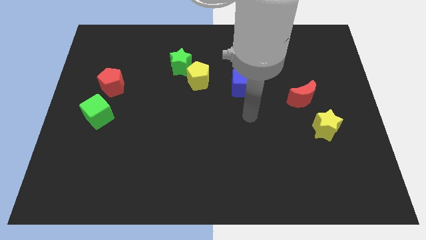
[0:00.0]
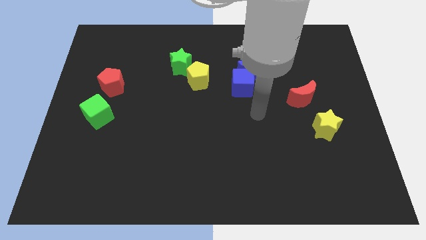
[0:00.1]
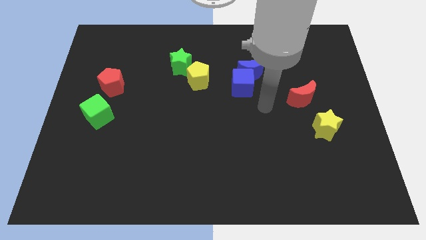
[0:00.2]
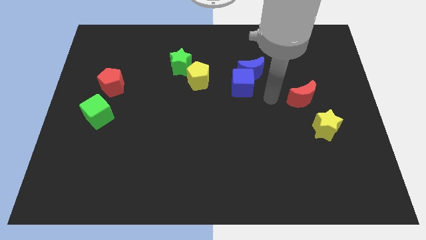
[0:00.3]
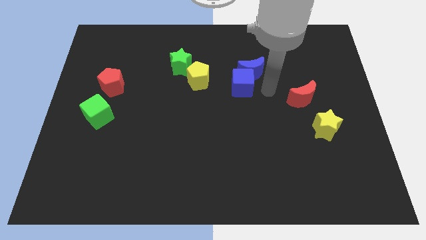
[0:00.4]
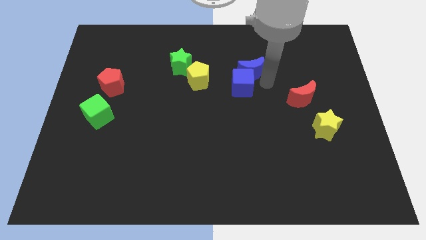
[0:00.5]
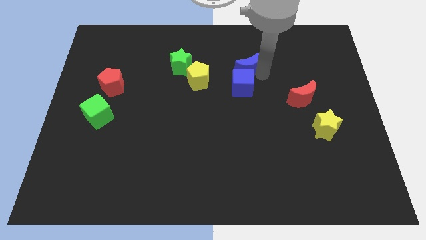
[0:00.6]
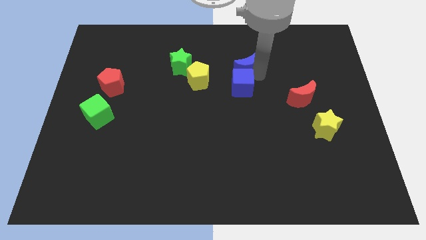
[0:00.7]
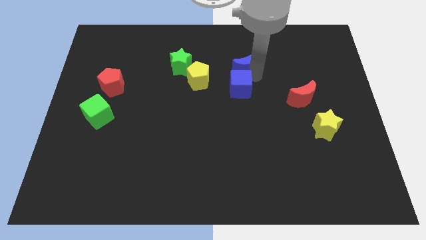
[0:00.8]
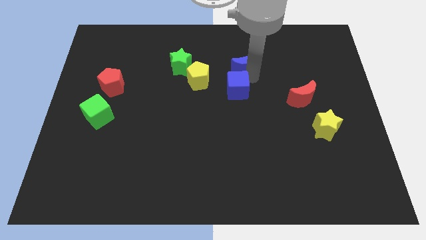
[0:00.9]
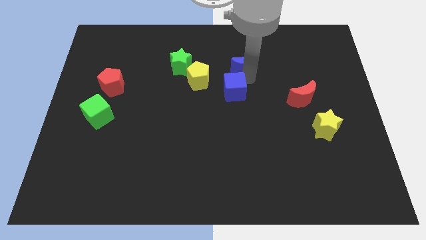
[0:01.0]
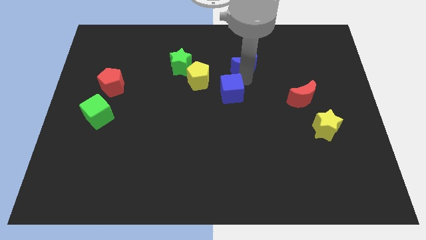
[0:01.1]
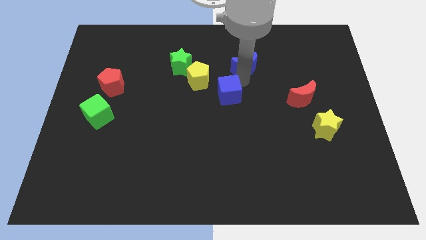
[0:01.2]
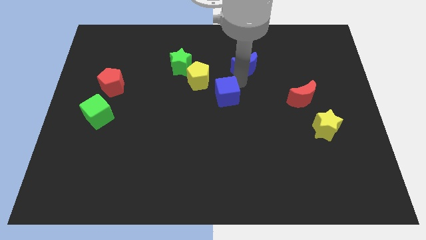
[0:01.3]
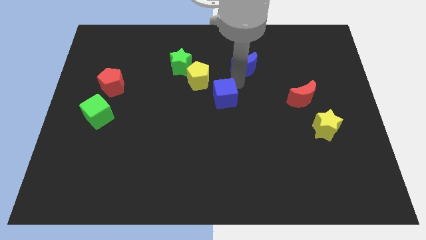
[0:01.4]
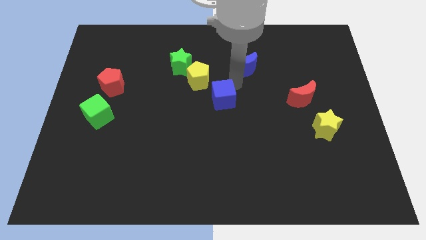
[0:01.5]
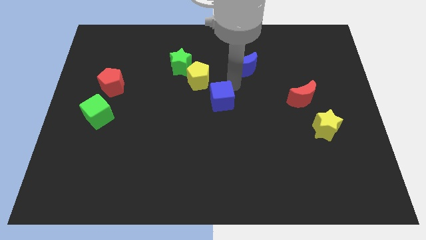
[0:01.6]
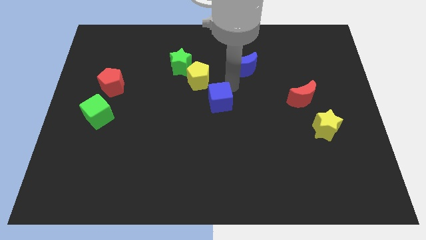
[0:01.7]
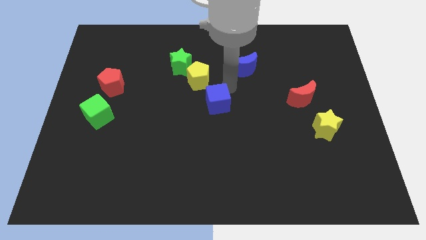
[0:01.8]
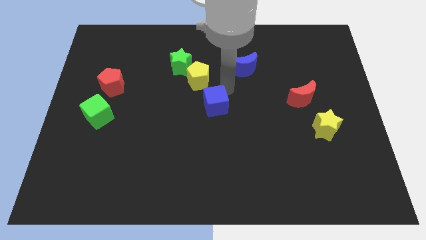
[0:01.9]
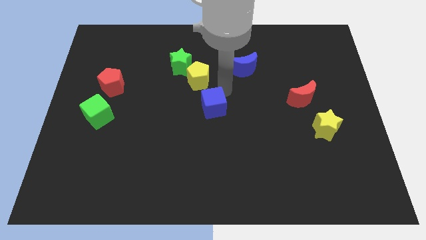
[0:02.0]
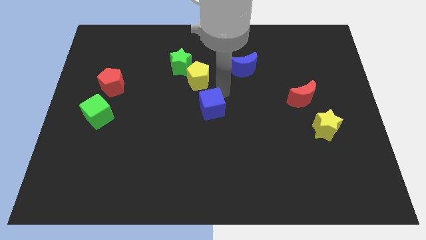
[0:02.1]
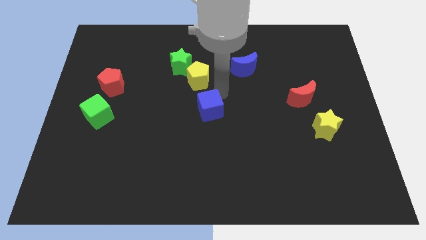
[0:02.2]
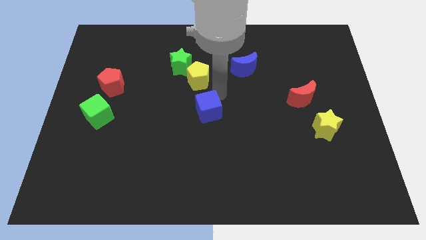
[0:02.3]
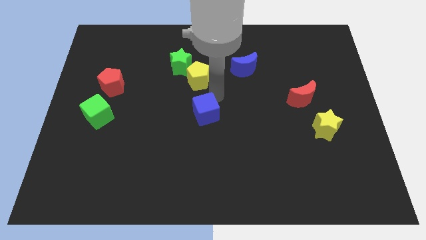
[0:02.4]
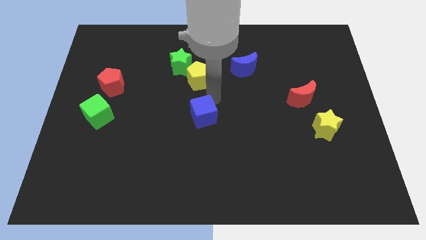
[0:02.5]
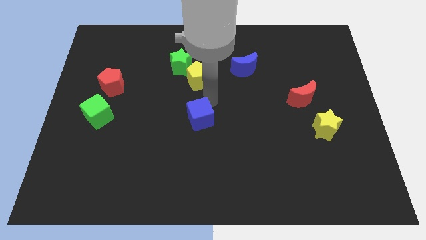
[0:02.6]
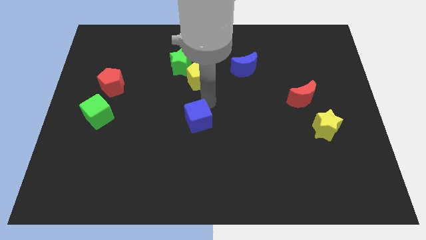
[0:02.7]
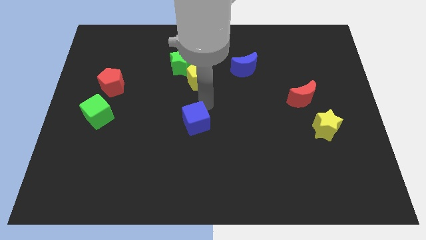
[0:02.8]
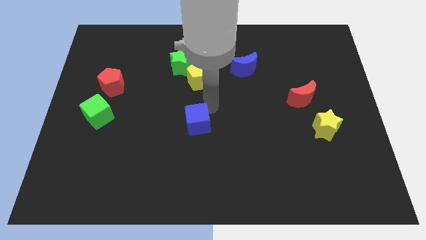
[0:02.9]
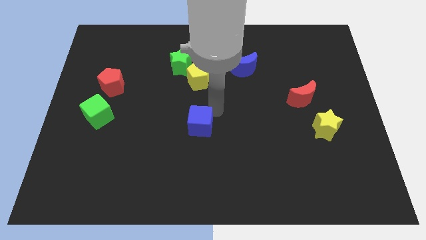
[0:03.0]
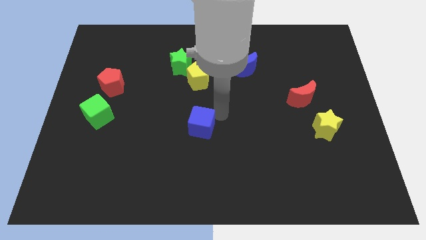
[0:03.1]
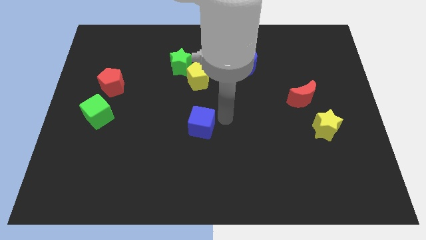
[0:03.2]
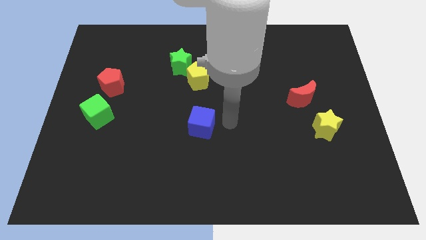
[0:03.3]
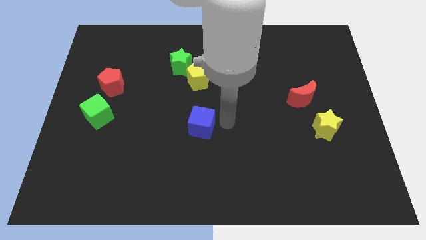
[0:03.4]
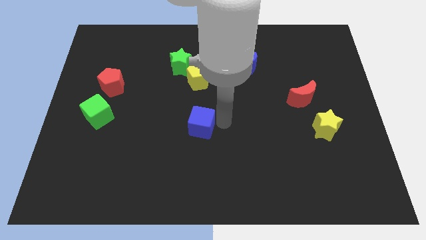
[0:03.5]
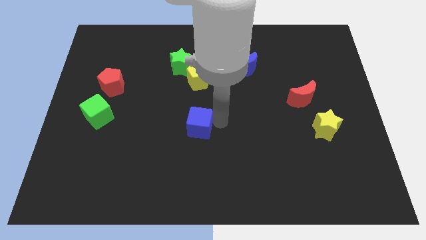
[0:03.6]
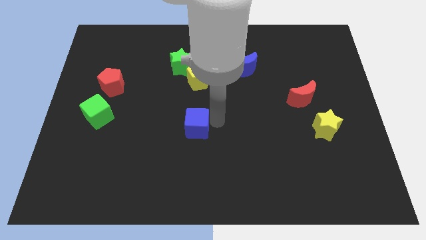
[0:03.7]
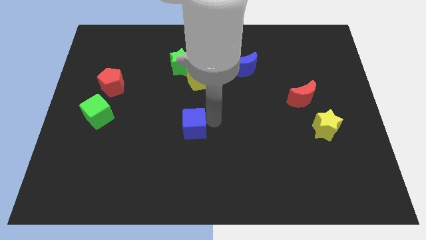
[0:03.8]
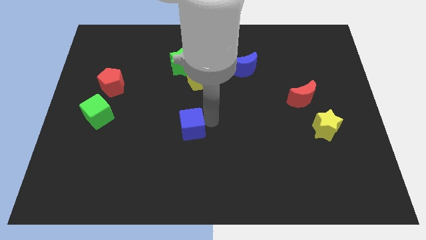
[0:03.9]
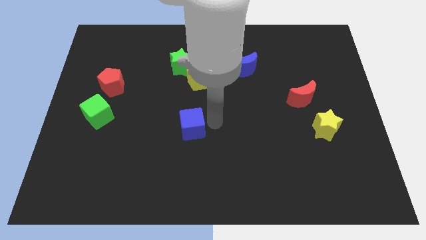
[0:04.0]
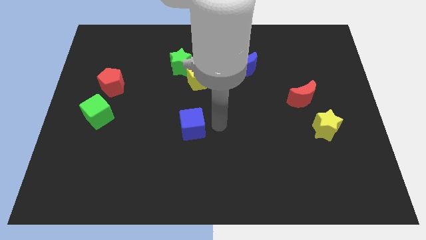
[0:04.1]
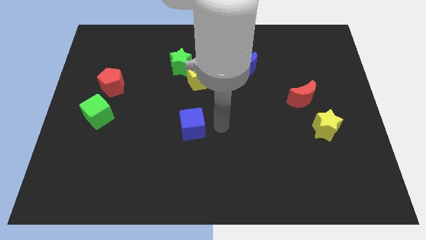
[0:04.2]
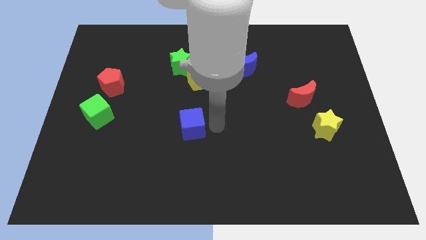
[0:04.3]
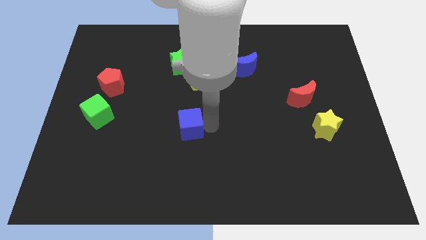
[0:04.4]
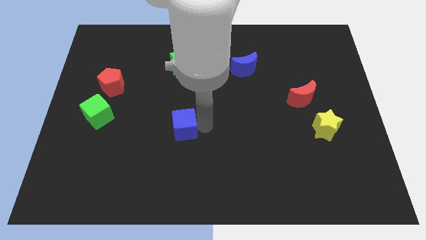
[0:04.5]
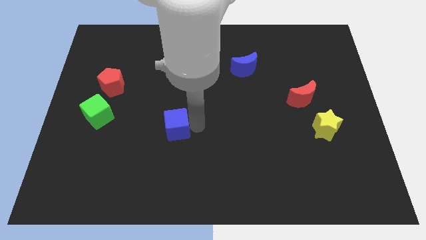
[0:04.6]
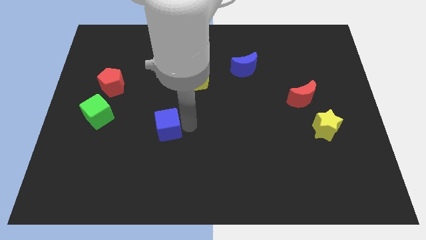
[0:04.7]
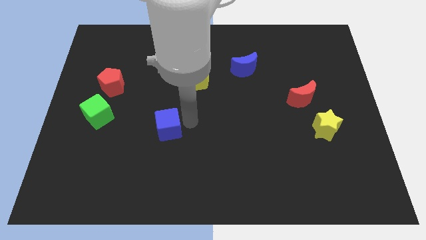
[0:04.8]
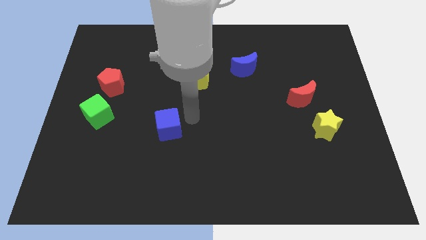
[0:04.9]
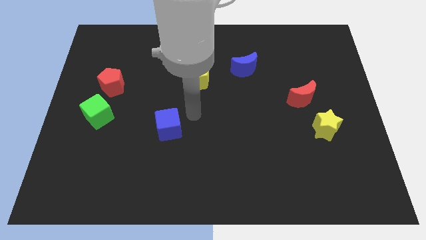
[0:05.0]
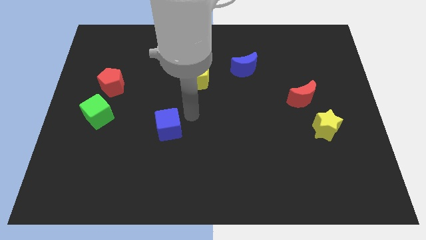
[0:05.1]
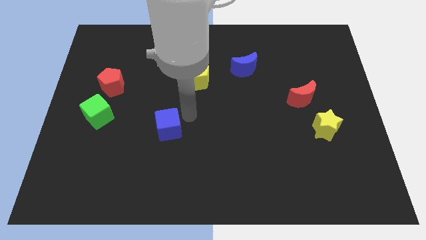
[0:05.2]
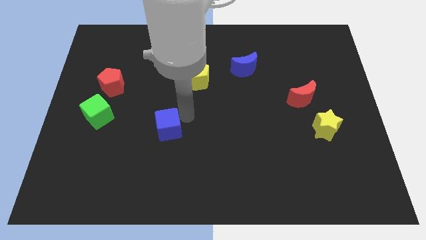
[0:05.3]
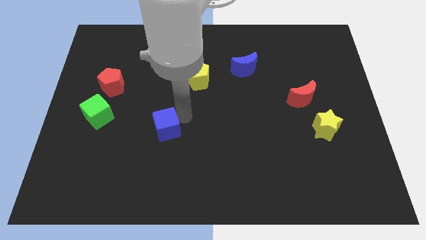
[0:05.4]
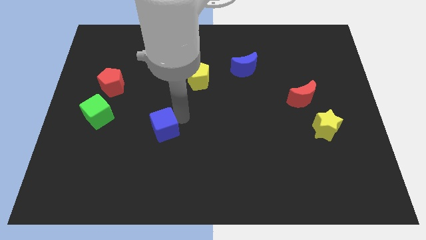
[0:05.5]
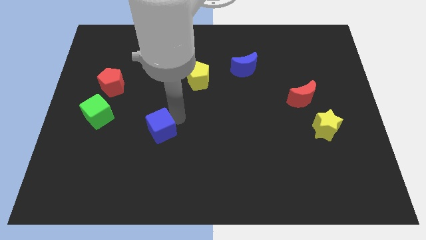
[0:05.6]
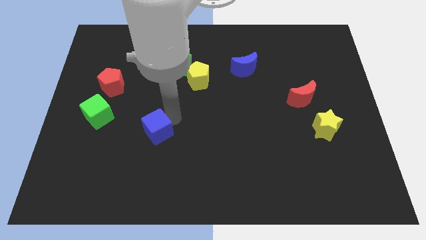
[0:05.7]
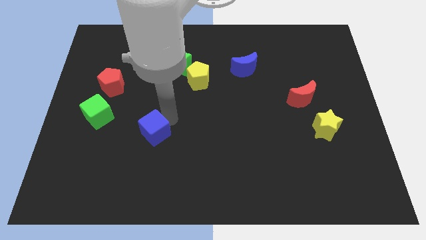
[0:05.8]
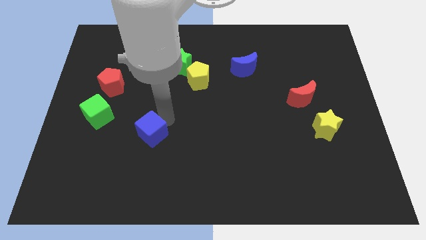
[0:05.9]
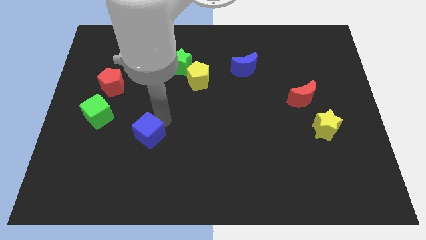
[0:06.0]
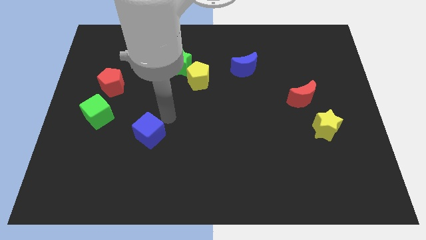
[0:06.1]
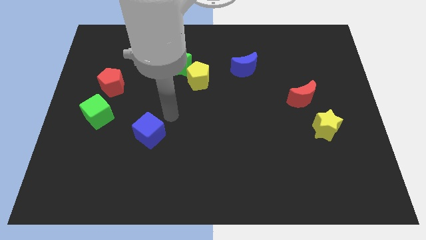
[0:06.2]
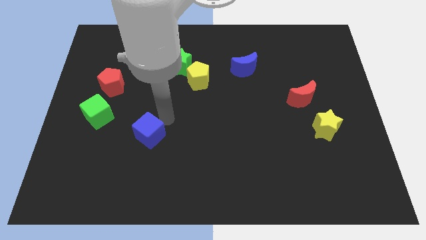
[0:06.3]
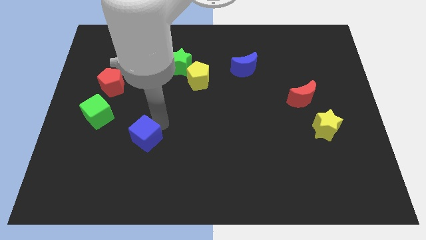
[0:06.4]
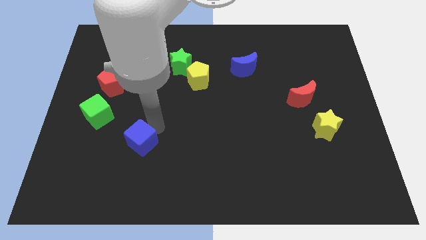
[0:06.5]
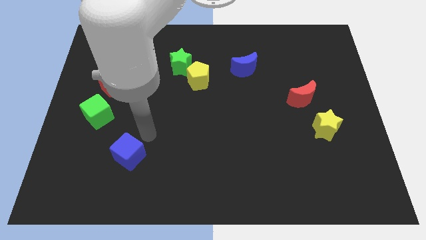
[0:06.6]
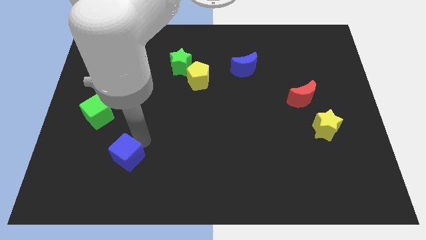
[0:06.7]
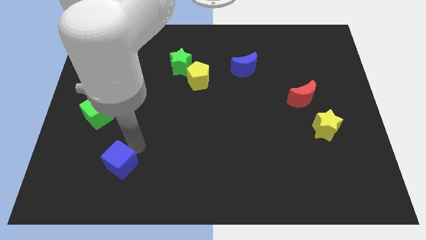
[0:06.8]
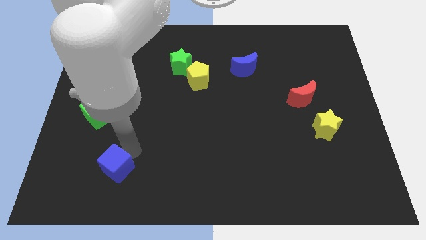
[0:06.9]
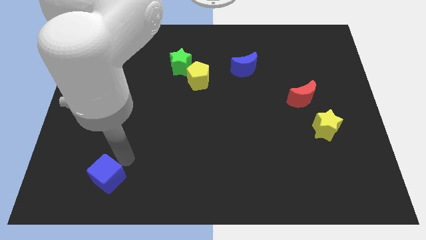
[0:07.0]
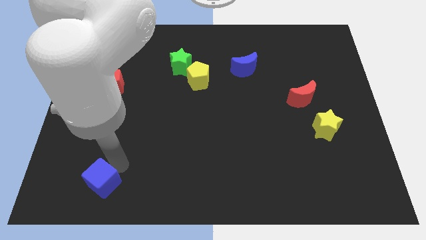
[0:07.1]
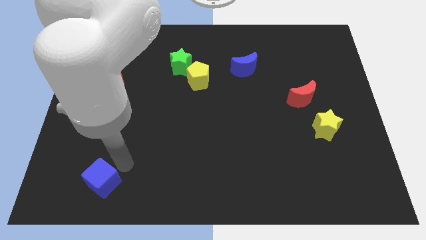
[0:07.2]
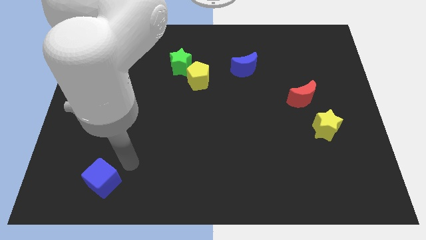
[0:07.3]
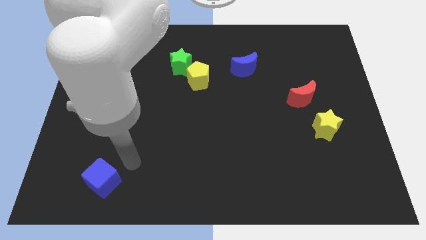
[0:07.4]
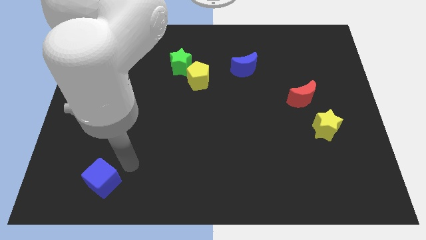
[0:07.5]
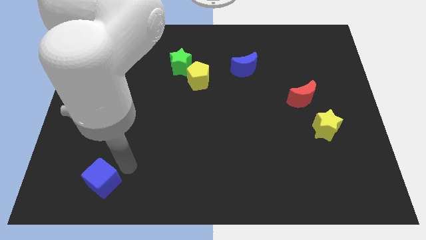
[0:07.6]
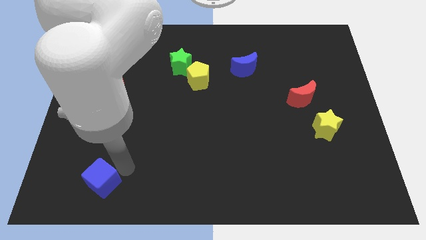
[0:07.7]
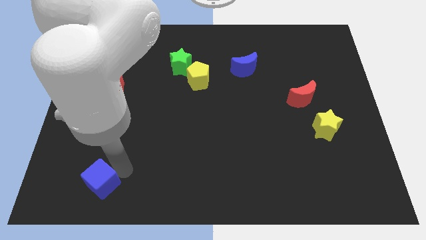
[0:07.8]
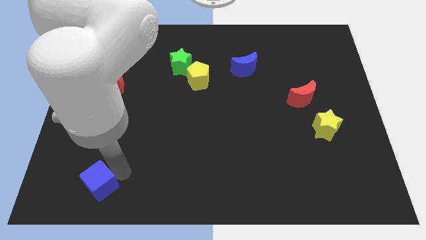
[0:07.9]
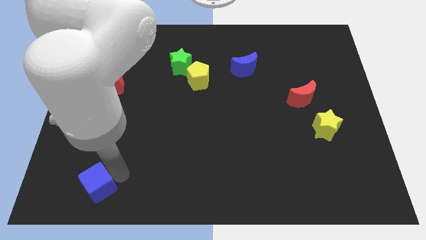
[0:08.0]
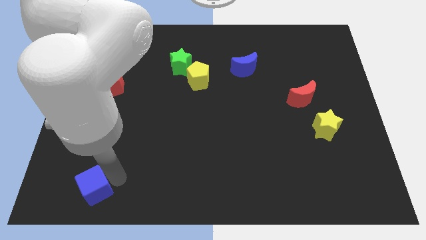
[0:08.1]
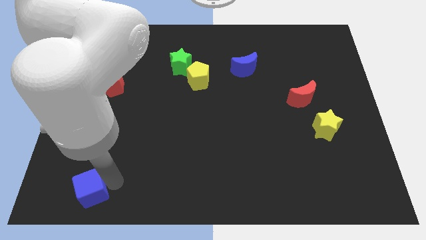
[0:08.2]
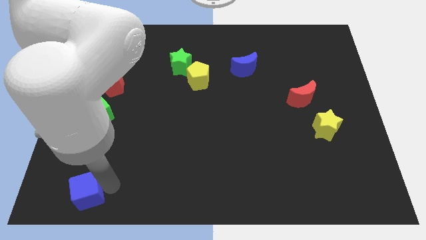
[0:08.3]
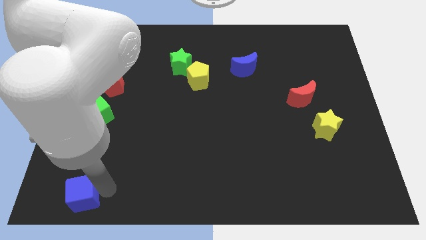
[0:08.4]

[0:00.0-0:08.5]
put the blue cube to the bottom left
